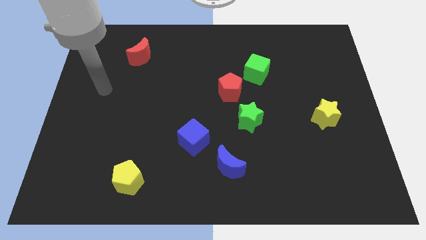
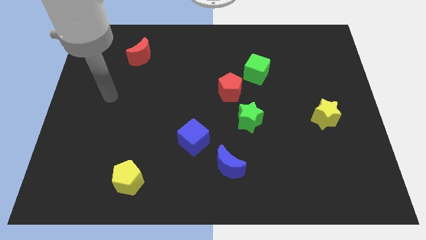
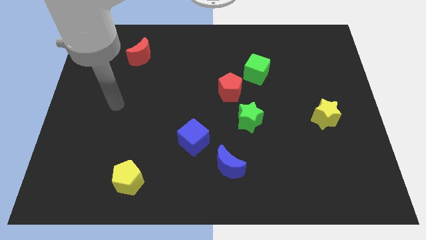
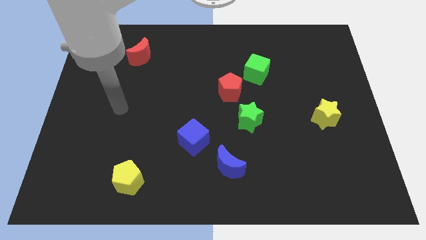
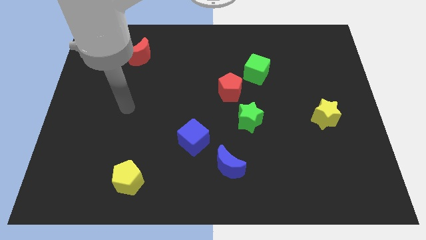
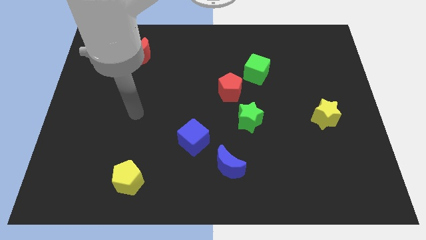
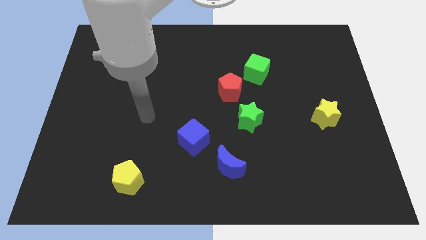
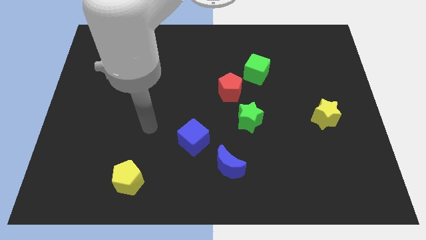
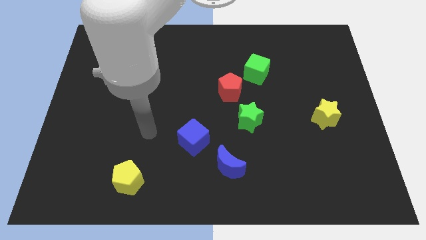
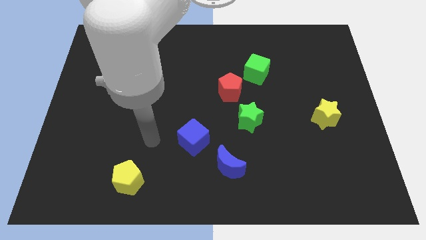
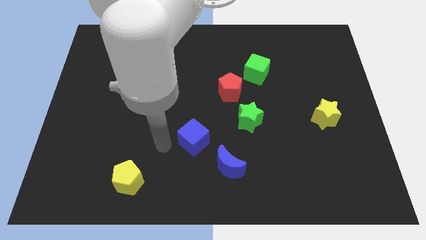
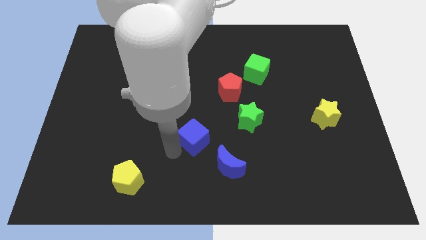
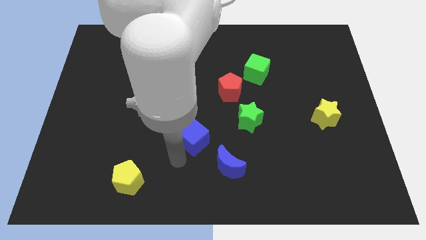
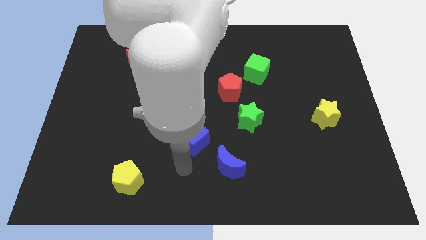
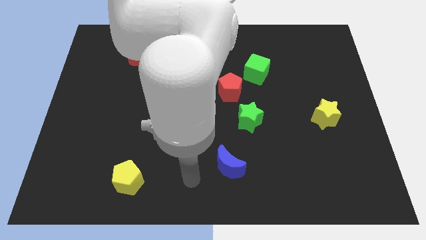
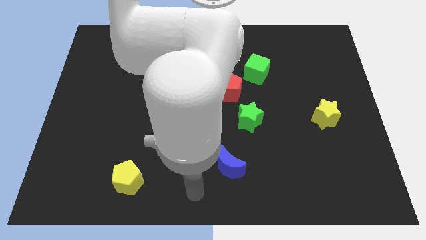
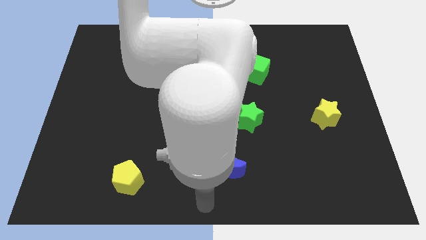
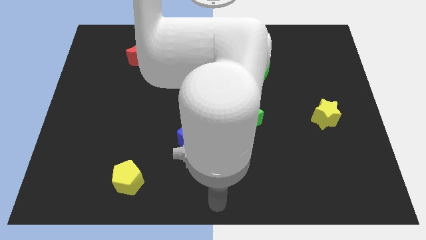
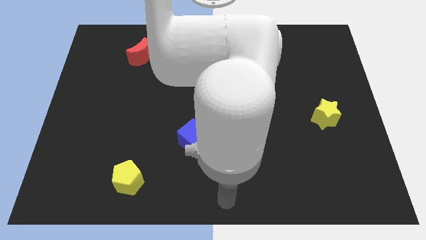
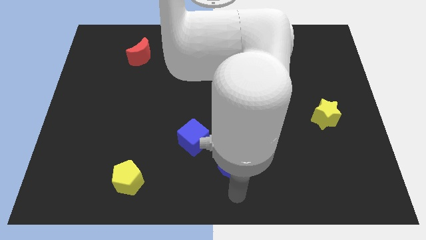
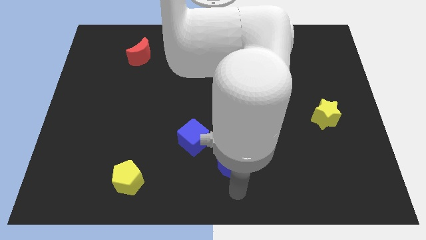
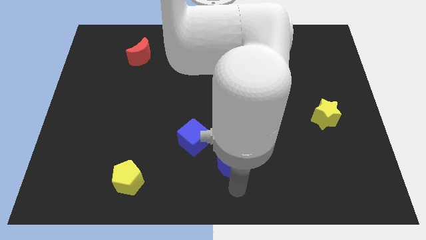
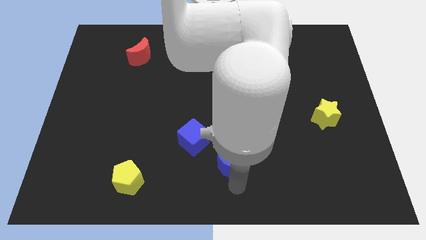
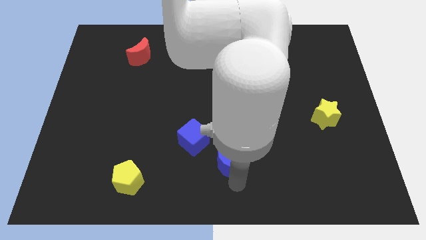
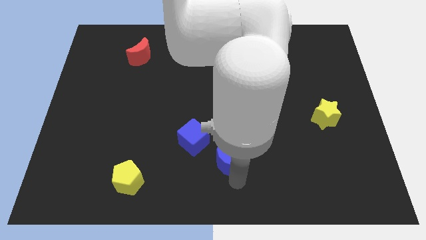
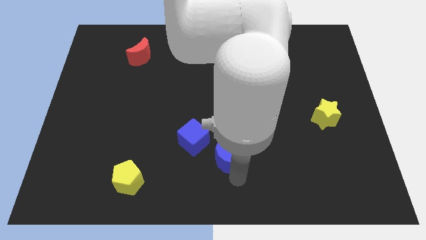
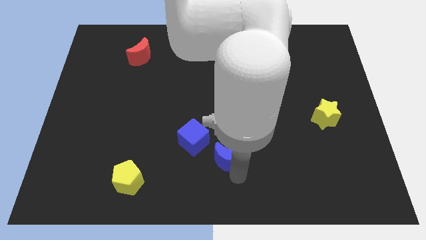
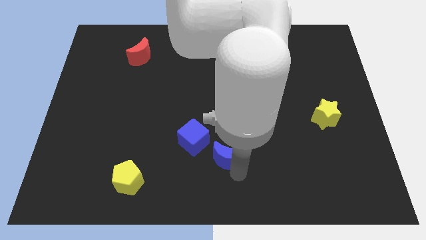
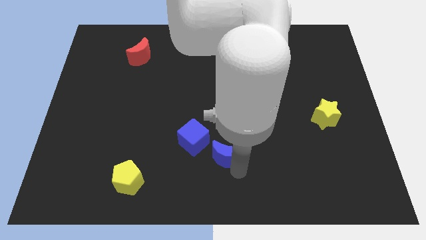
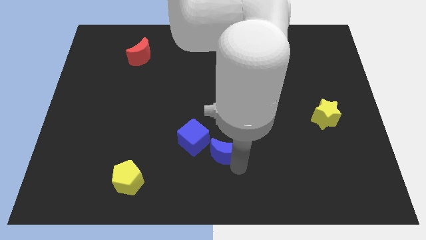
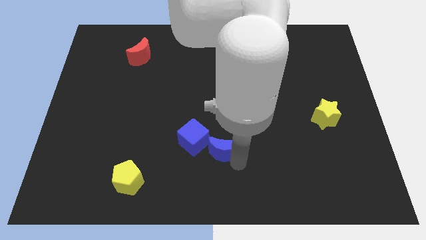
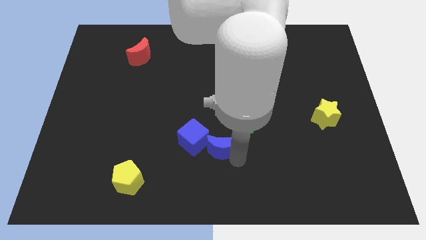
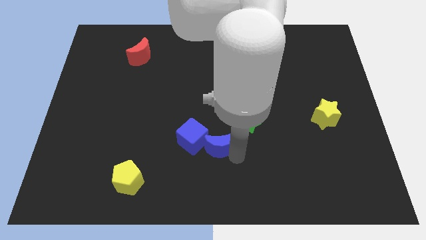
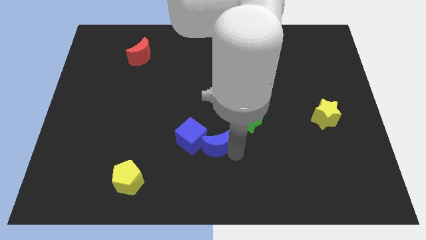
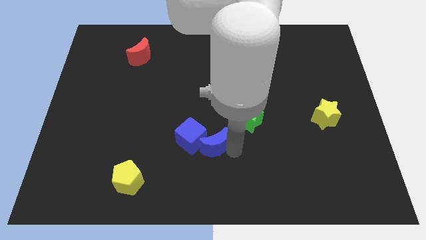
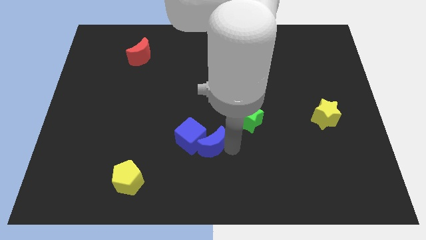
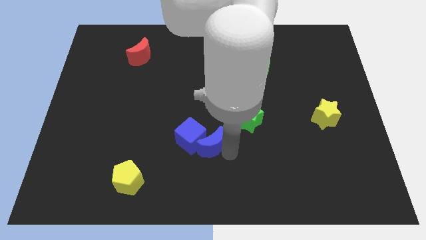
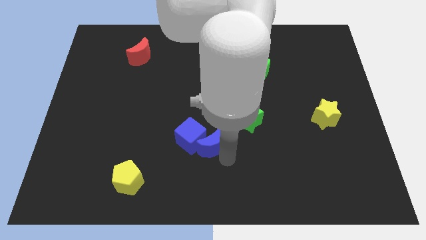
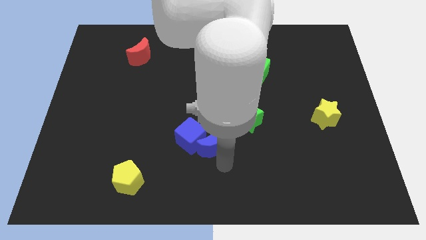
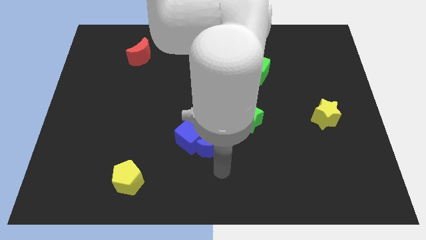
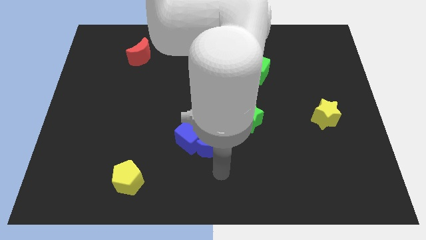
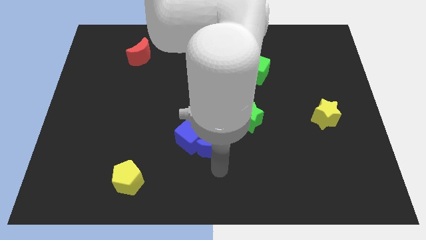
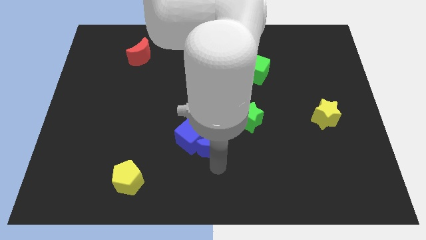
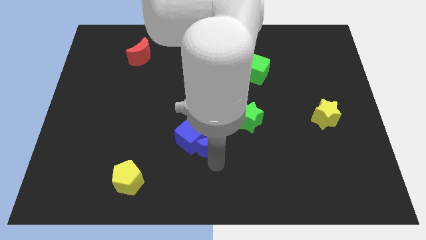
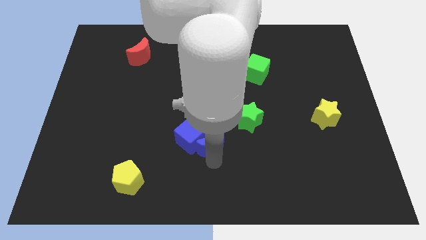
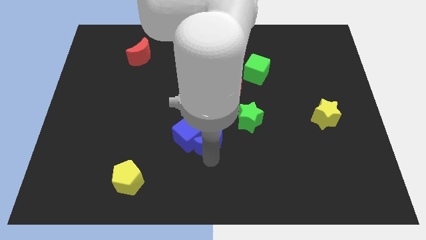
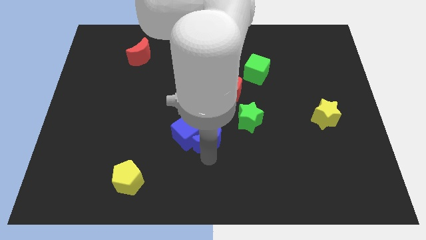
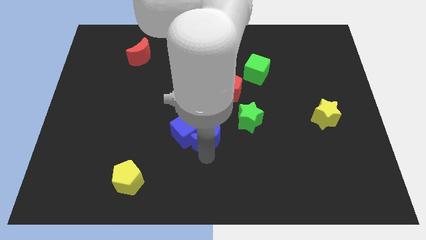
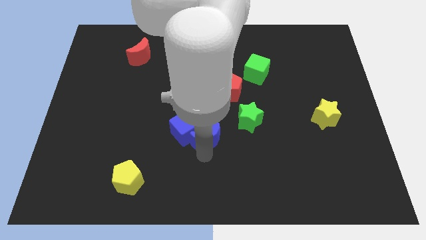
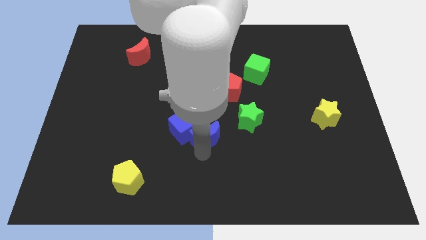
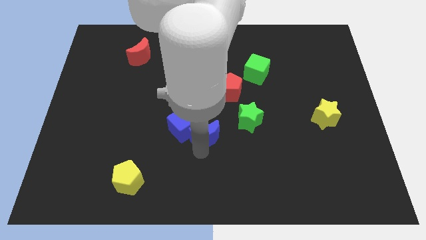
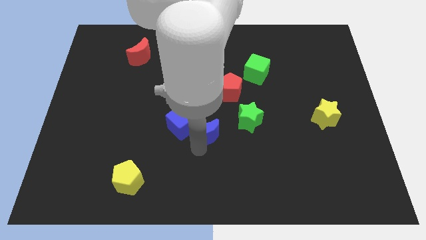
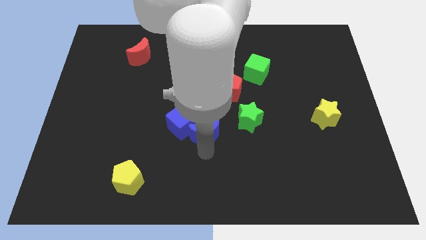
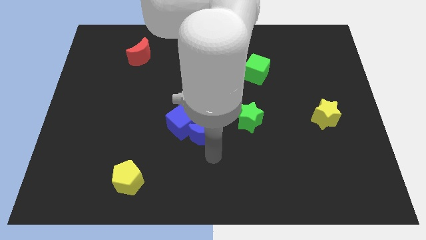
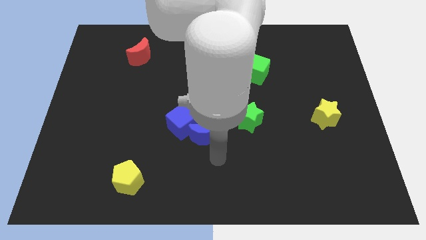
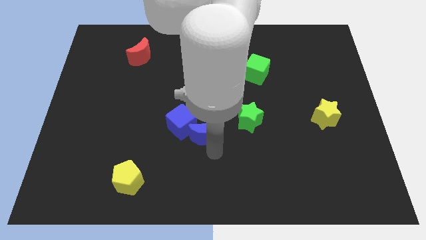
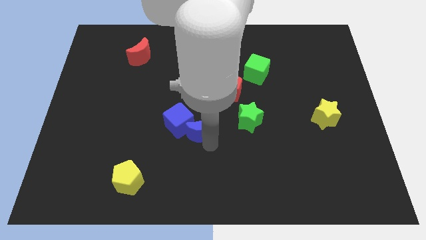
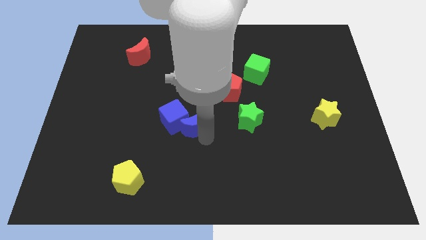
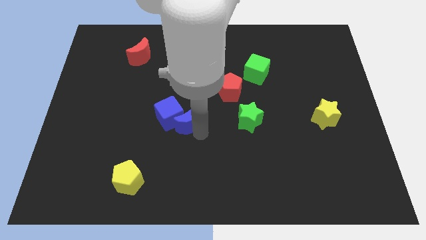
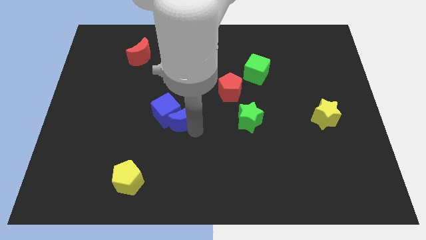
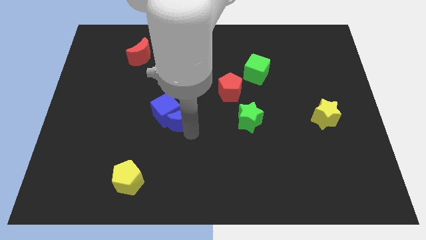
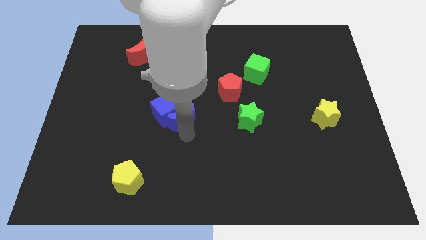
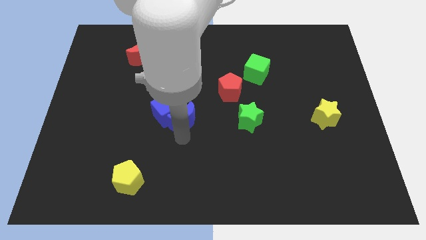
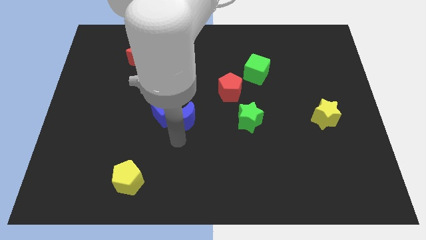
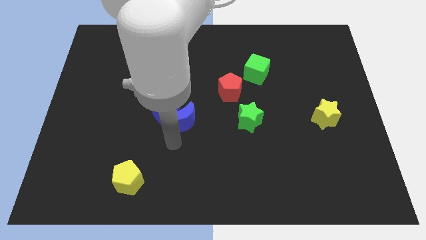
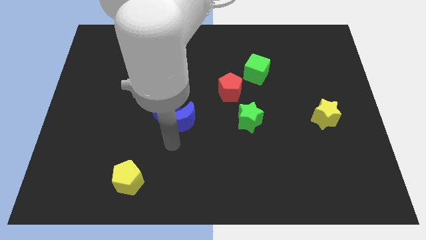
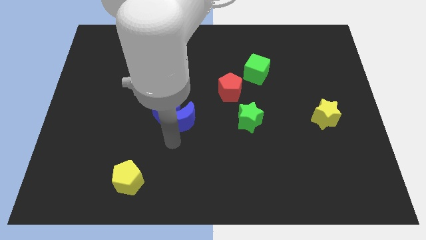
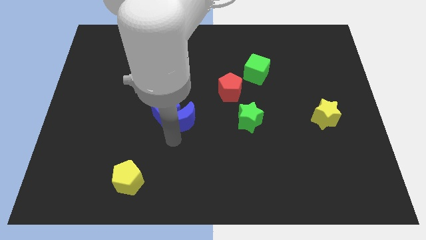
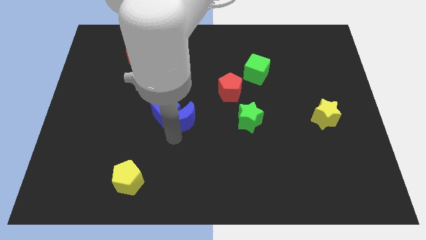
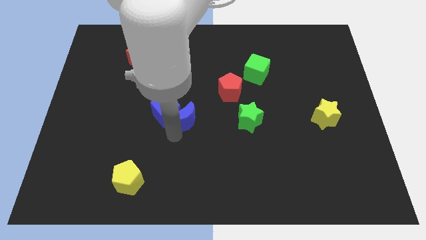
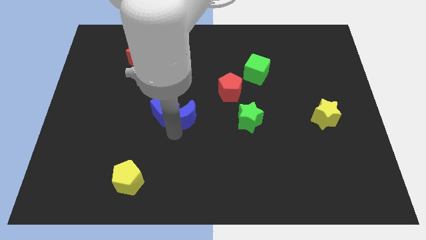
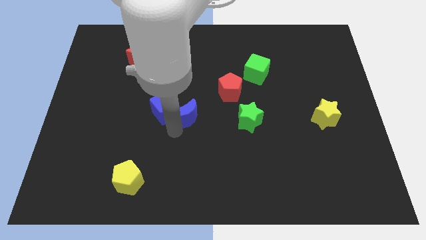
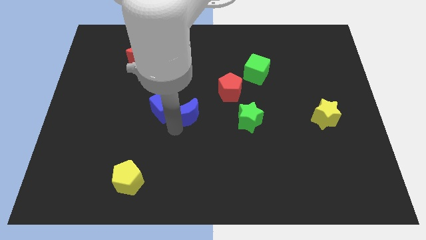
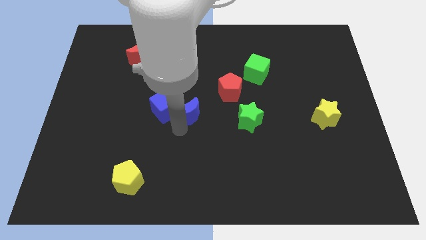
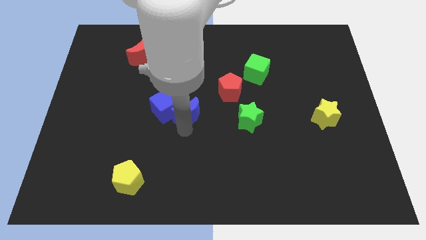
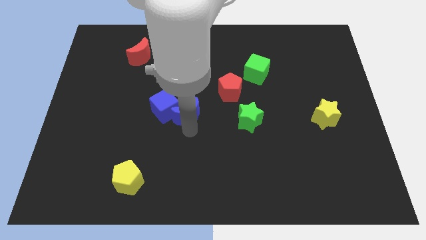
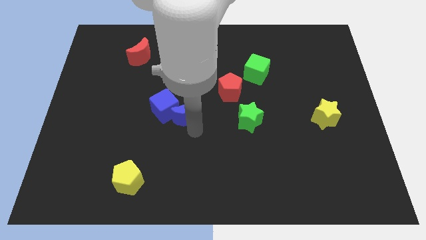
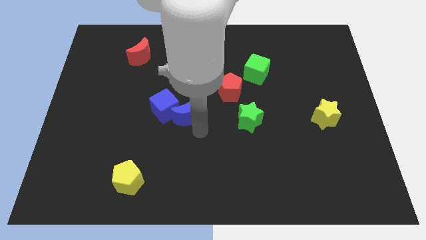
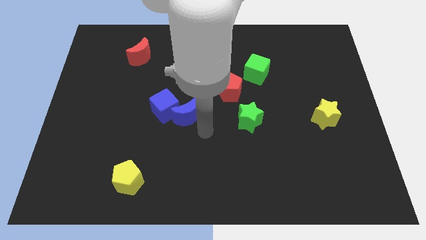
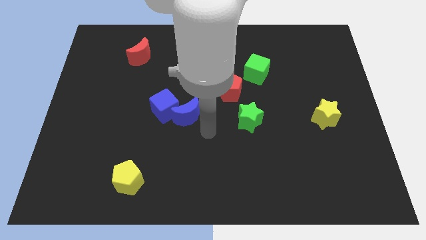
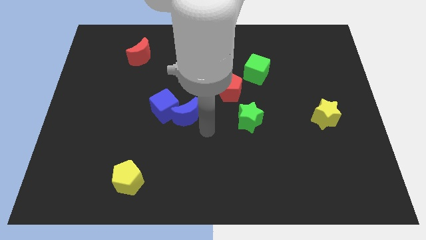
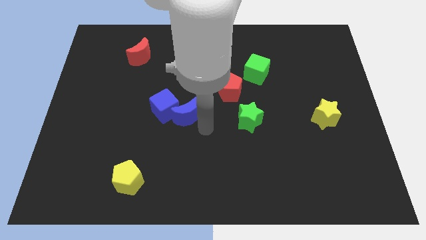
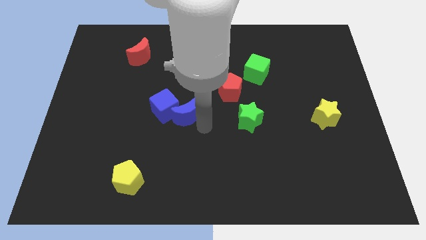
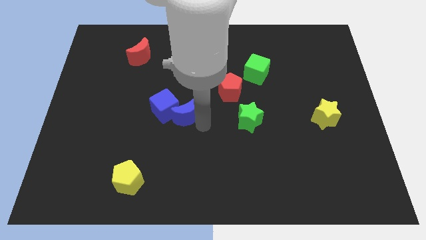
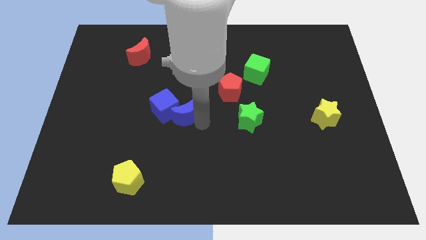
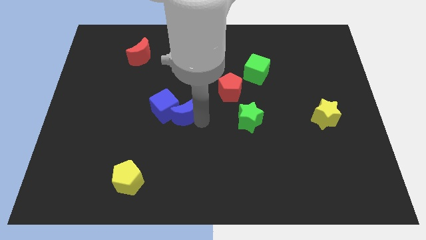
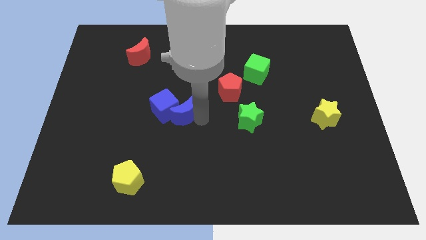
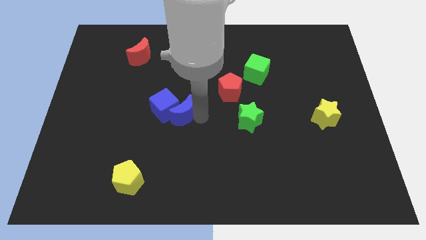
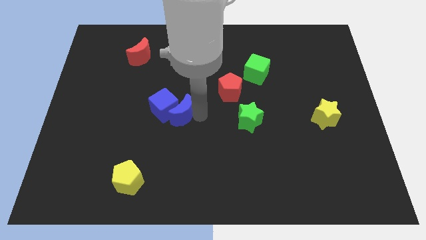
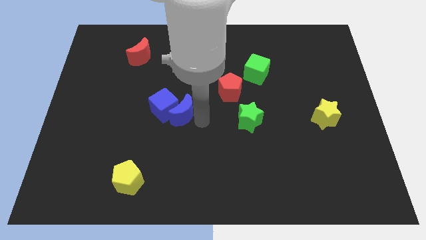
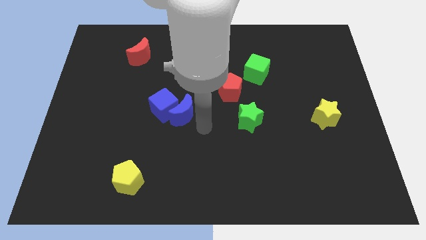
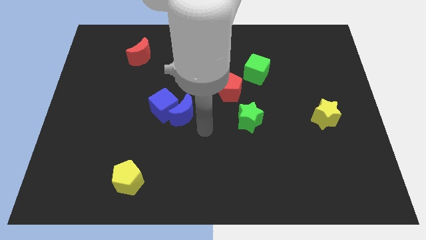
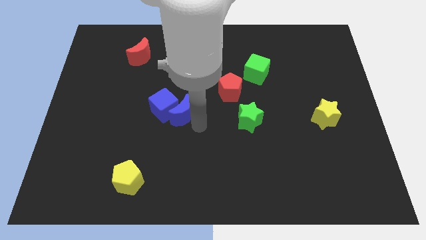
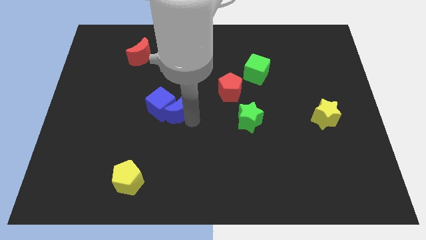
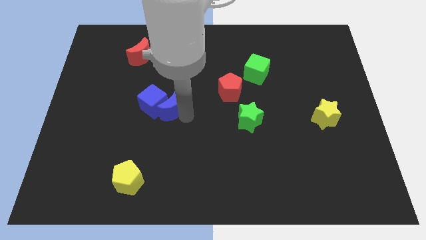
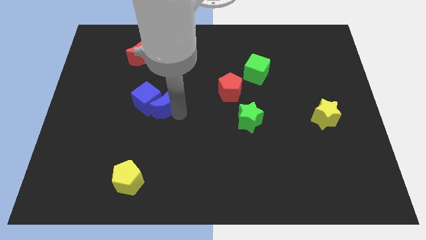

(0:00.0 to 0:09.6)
push the blue moon upwards and left diagonally
